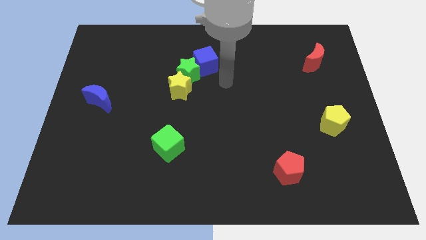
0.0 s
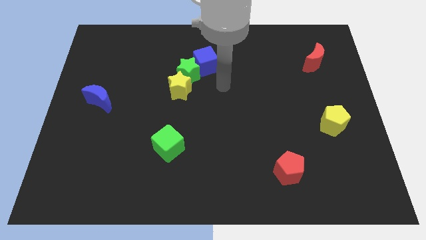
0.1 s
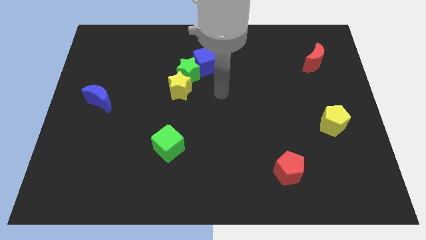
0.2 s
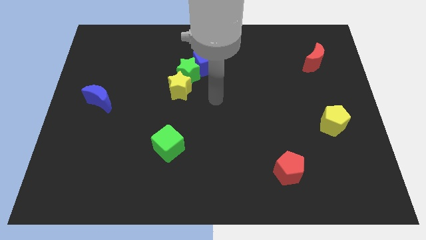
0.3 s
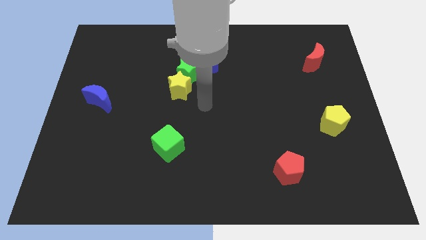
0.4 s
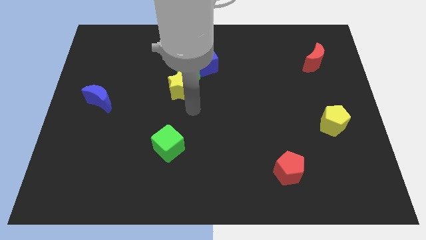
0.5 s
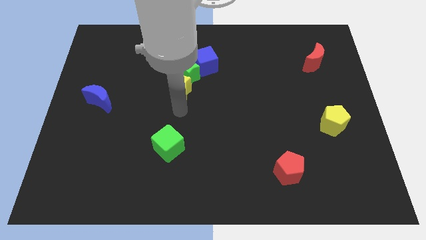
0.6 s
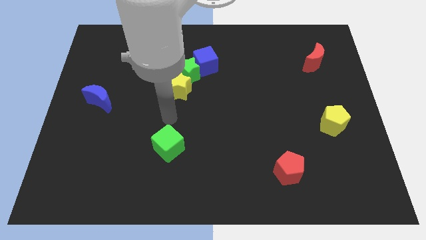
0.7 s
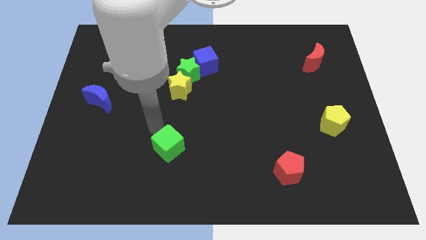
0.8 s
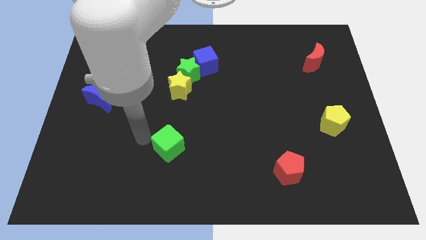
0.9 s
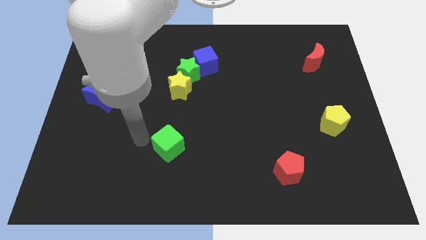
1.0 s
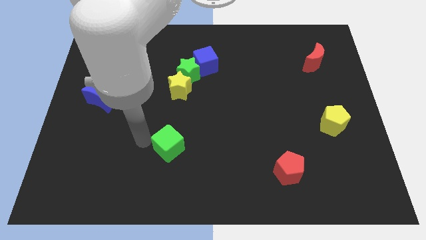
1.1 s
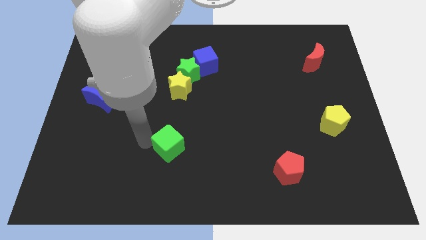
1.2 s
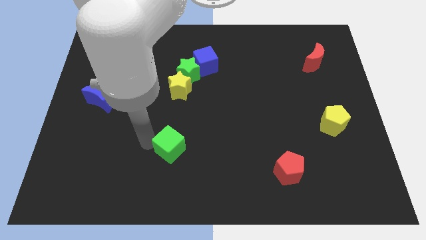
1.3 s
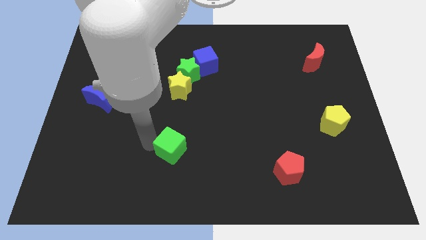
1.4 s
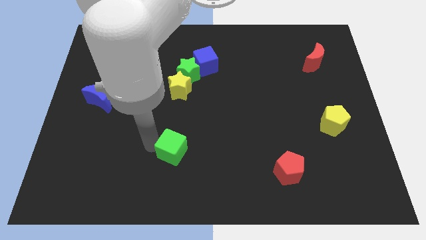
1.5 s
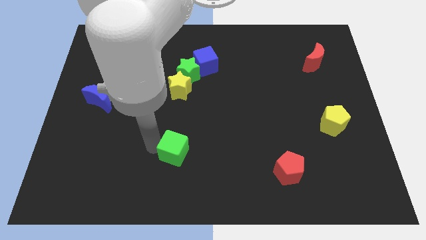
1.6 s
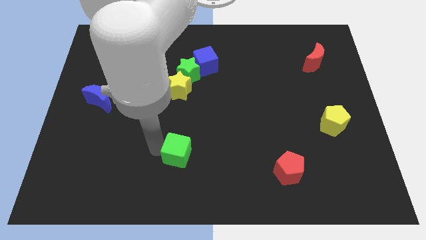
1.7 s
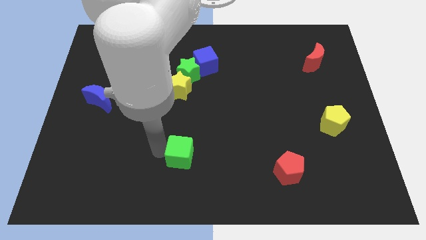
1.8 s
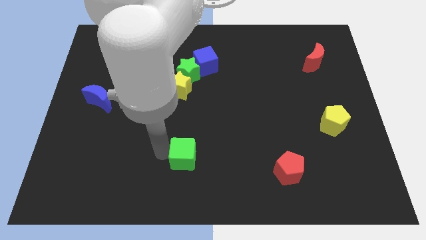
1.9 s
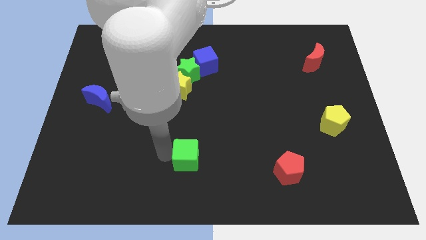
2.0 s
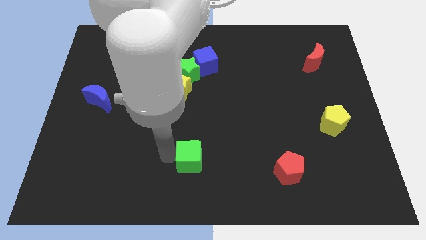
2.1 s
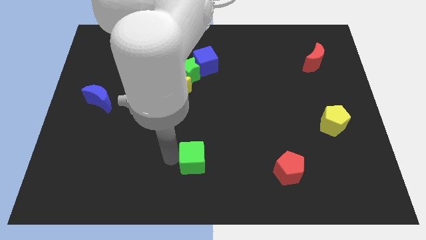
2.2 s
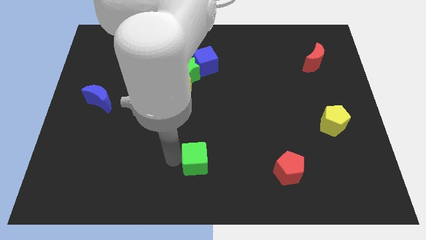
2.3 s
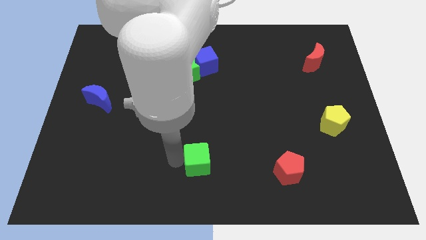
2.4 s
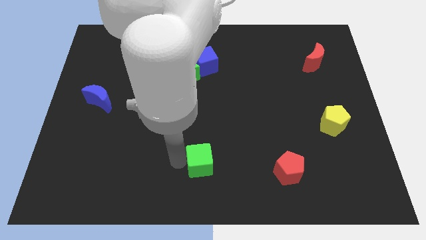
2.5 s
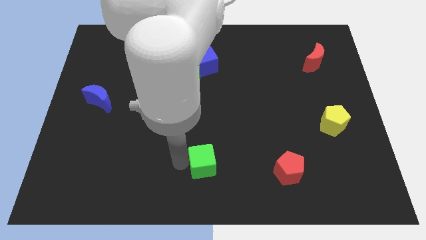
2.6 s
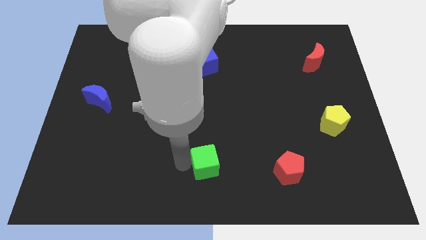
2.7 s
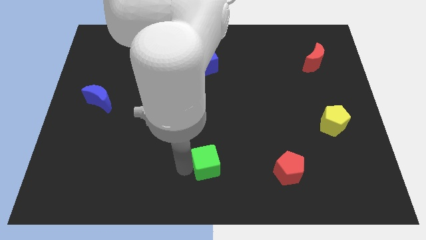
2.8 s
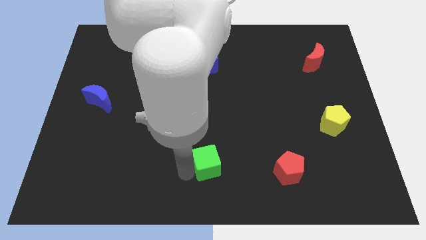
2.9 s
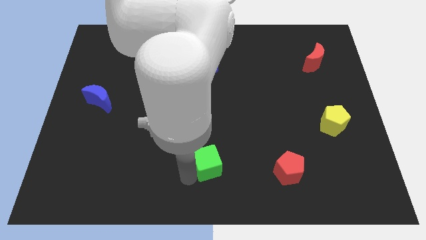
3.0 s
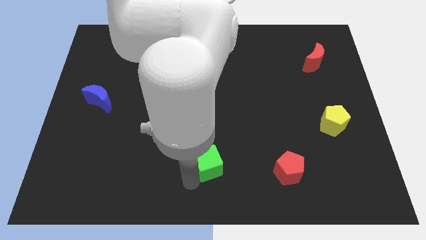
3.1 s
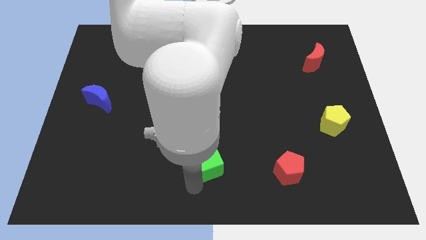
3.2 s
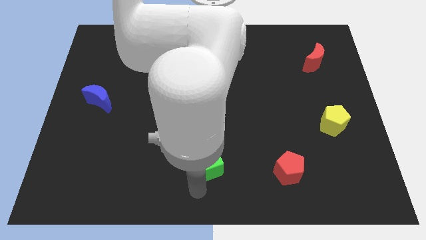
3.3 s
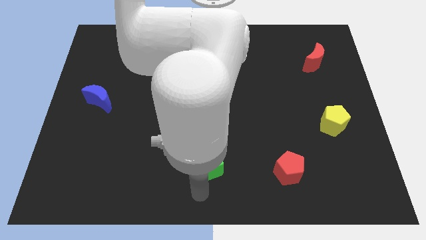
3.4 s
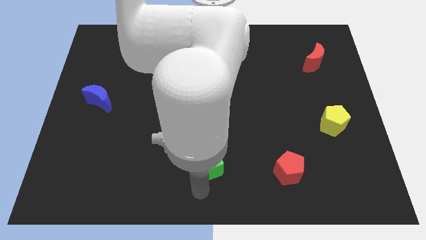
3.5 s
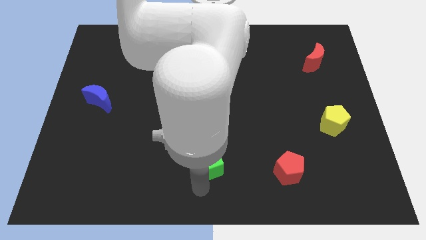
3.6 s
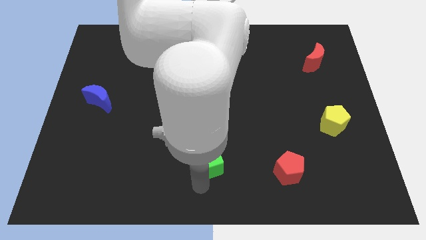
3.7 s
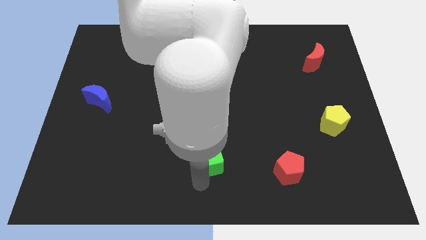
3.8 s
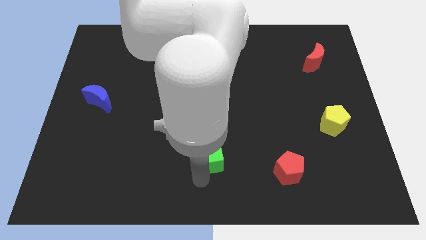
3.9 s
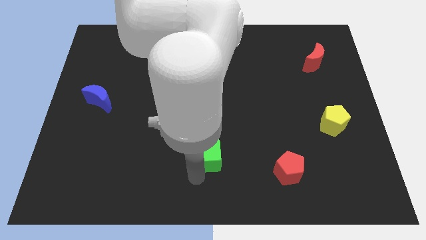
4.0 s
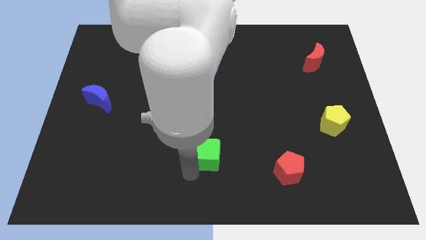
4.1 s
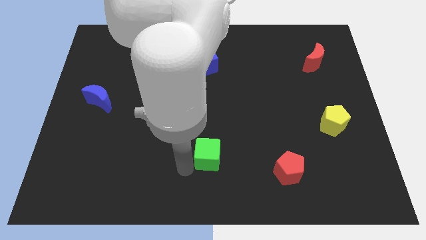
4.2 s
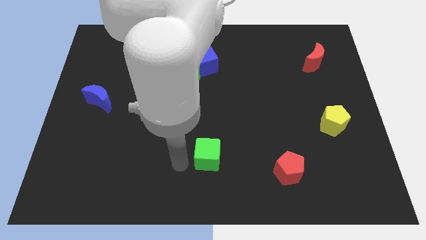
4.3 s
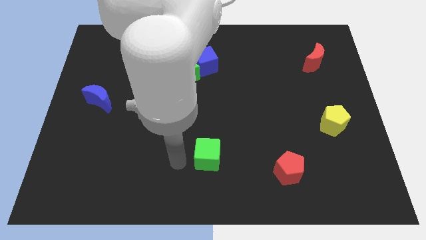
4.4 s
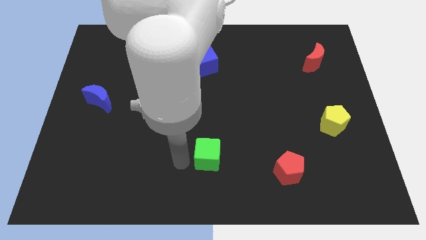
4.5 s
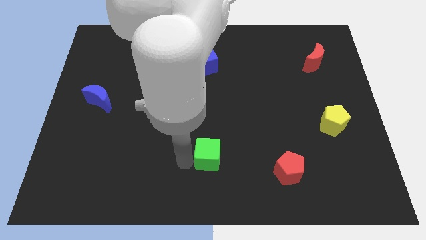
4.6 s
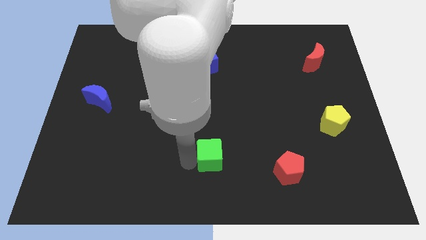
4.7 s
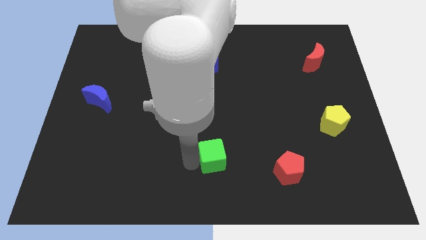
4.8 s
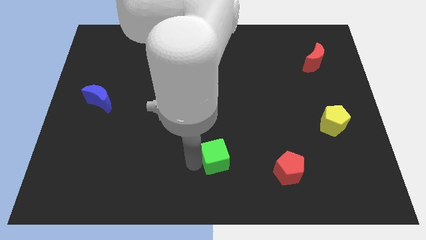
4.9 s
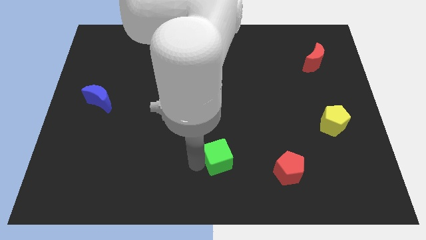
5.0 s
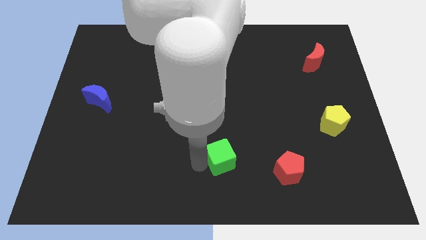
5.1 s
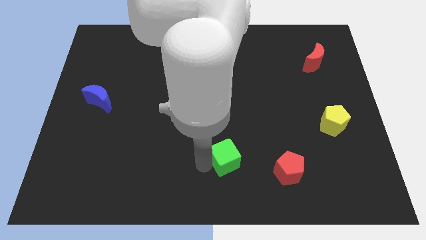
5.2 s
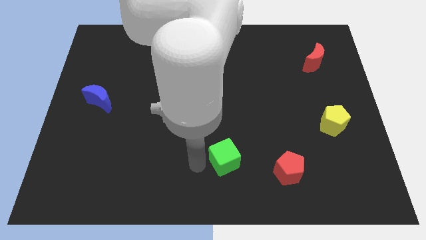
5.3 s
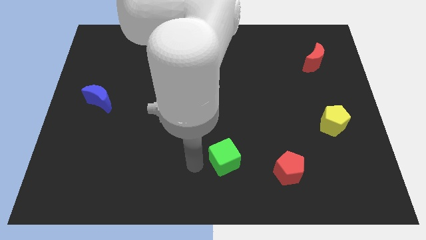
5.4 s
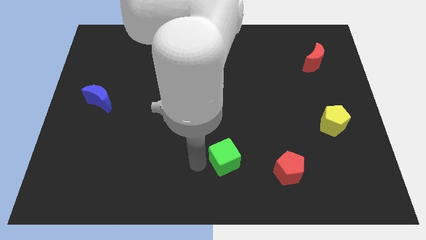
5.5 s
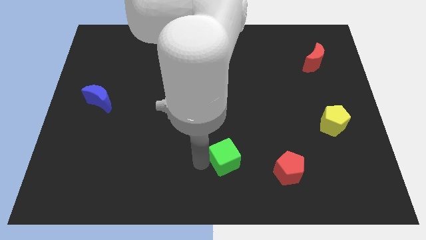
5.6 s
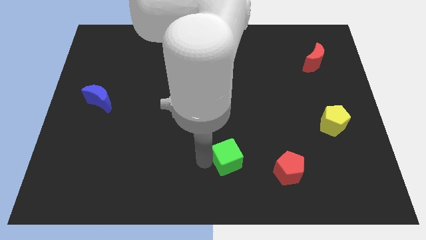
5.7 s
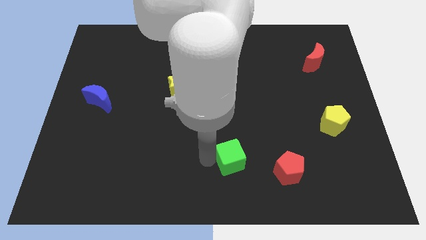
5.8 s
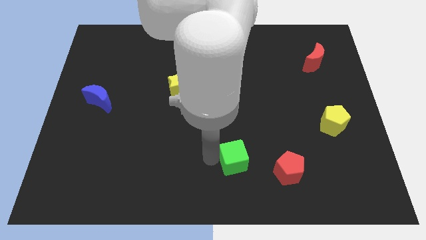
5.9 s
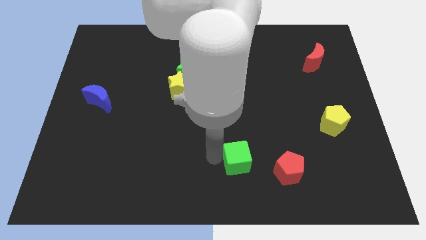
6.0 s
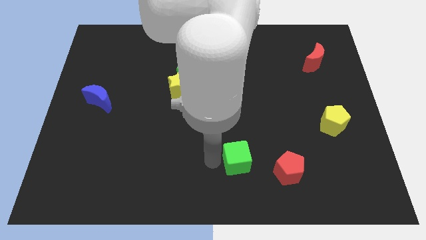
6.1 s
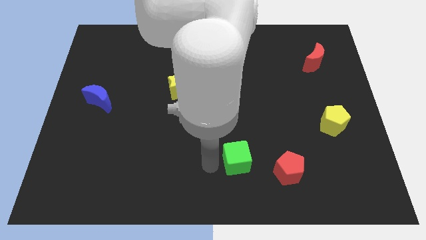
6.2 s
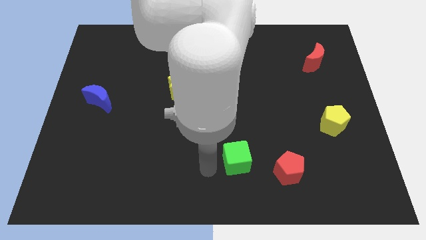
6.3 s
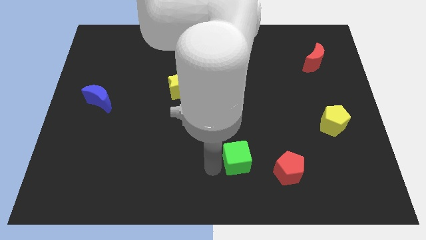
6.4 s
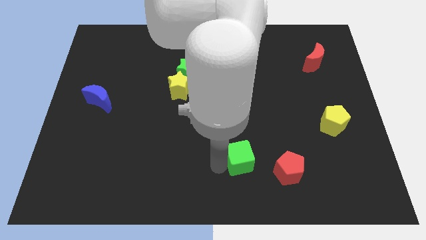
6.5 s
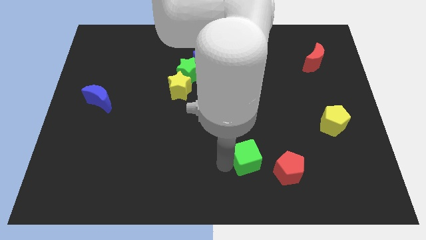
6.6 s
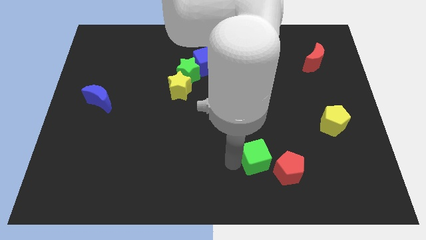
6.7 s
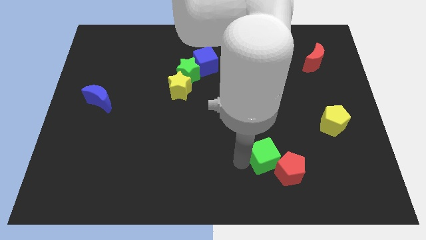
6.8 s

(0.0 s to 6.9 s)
move the green cube to the right

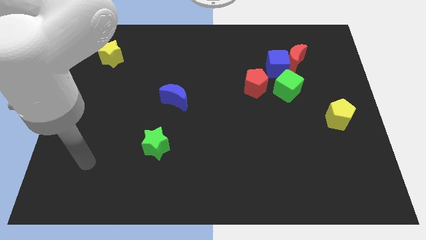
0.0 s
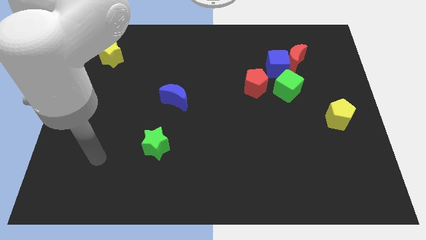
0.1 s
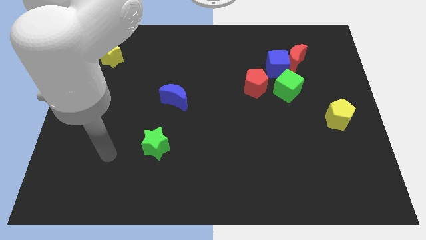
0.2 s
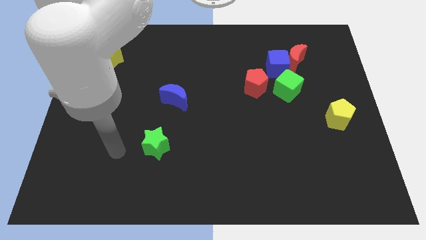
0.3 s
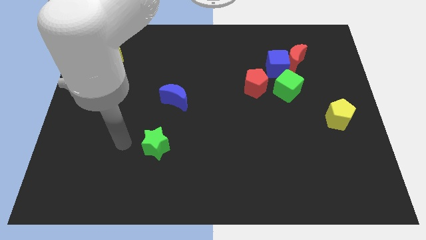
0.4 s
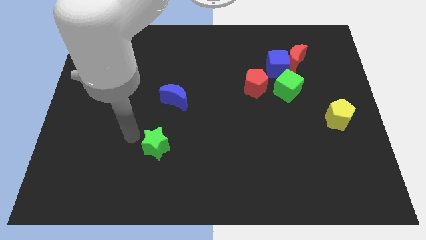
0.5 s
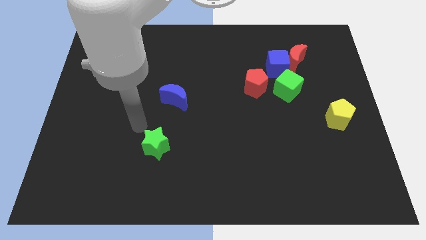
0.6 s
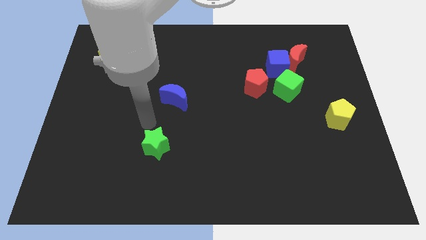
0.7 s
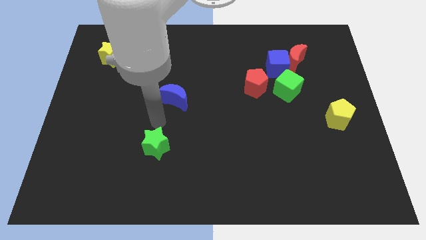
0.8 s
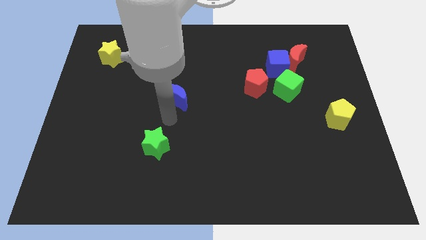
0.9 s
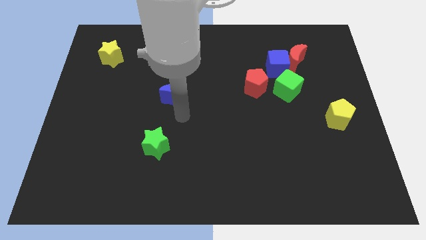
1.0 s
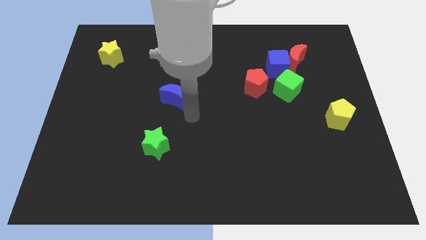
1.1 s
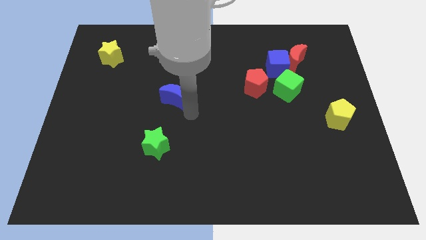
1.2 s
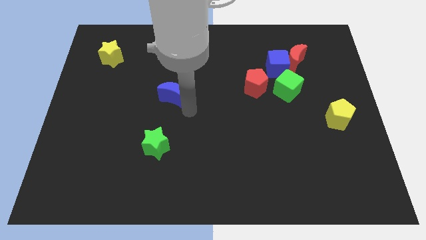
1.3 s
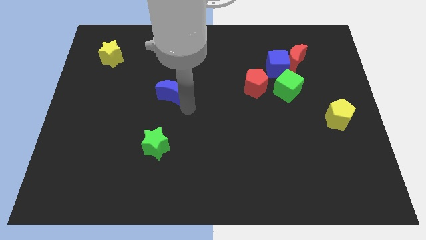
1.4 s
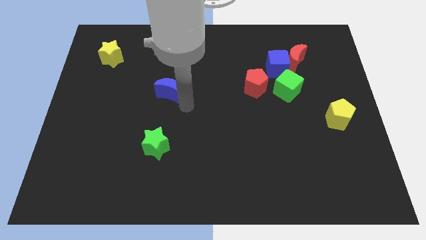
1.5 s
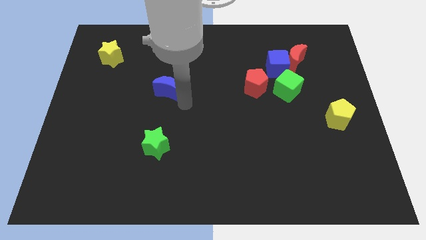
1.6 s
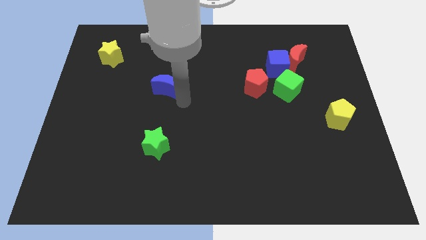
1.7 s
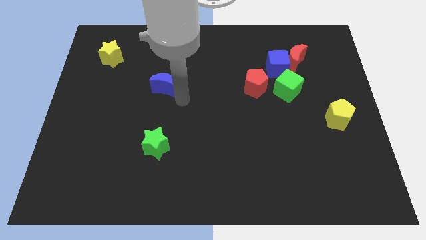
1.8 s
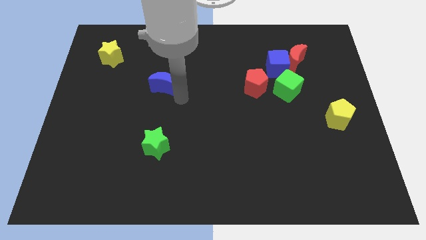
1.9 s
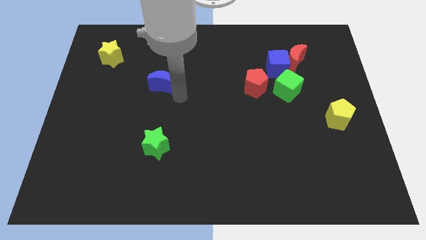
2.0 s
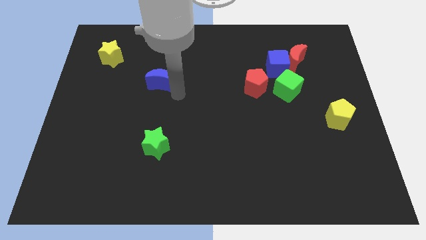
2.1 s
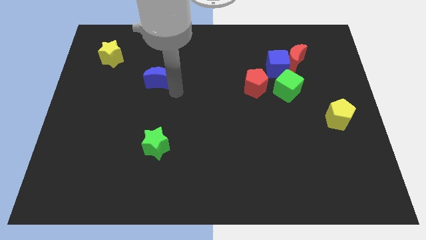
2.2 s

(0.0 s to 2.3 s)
move the blue moon diagonally upwards and to the left a little bit
